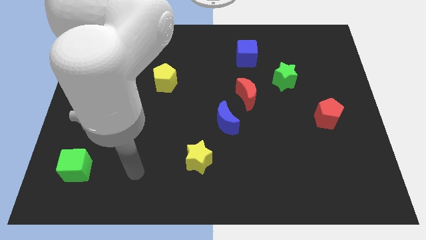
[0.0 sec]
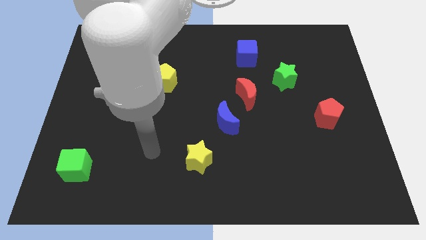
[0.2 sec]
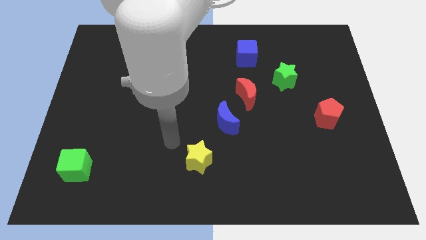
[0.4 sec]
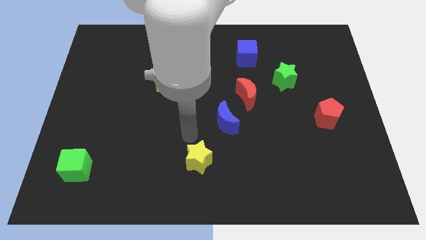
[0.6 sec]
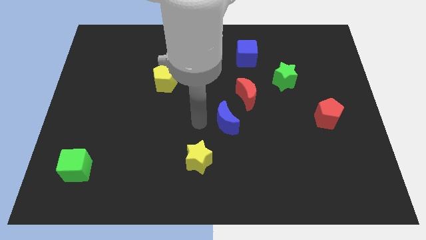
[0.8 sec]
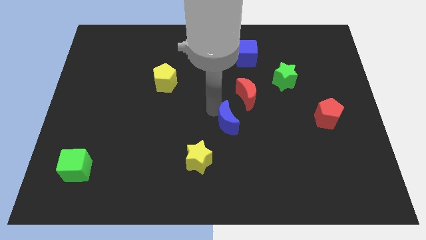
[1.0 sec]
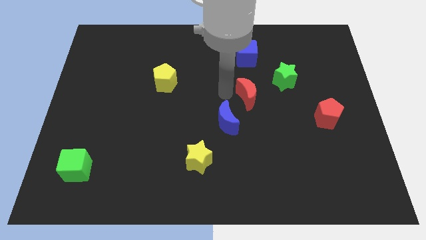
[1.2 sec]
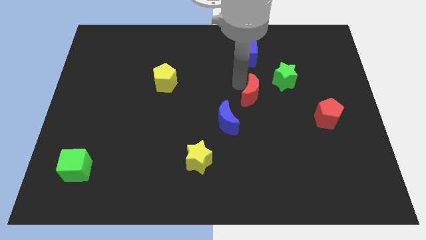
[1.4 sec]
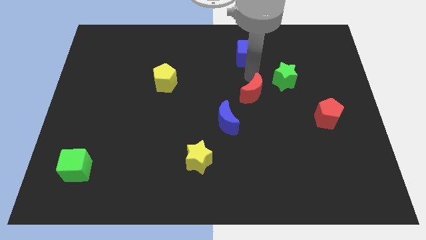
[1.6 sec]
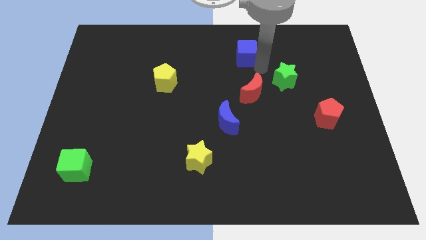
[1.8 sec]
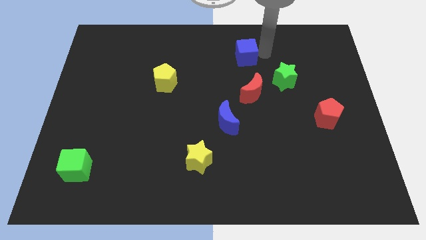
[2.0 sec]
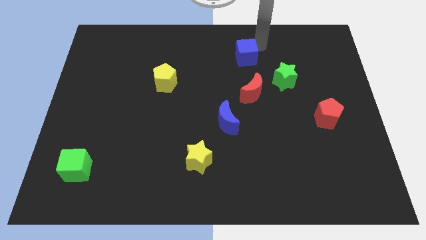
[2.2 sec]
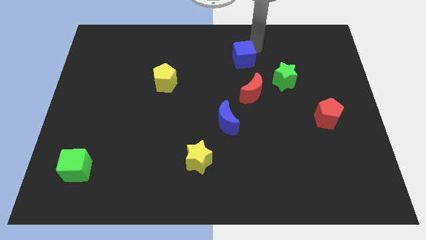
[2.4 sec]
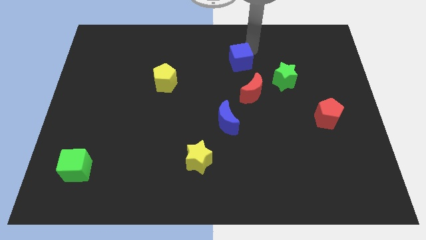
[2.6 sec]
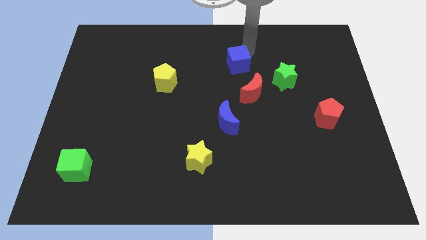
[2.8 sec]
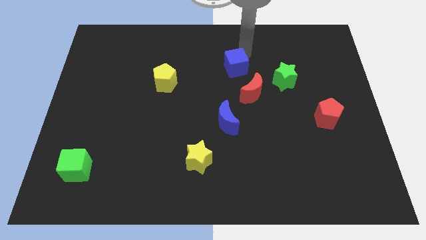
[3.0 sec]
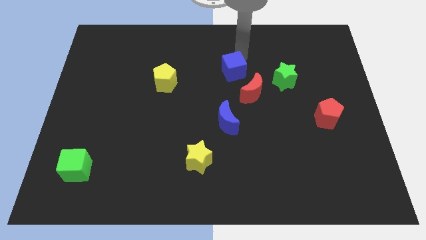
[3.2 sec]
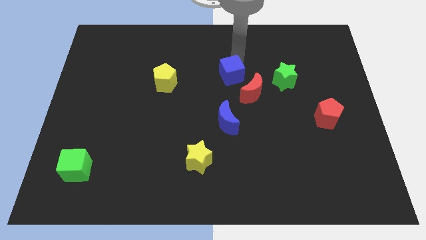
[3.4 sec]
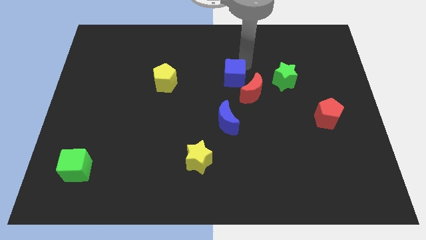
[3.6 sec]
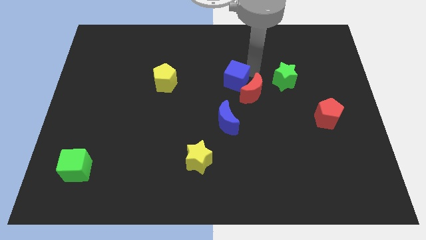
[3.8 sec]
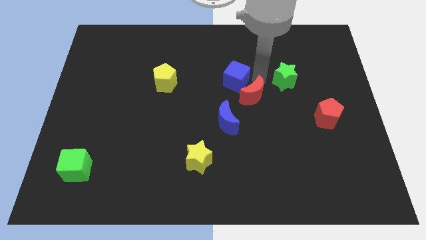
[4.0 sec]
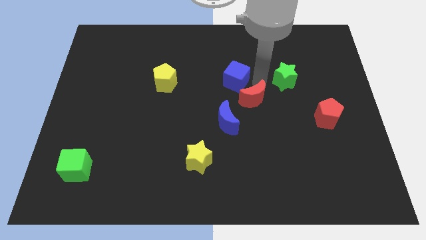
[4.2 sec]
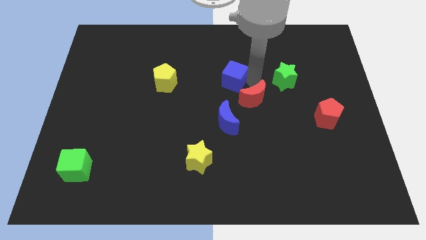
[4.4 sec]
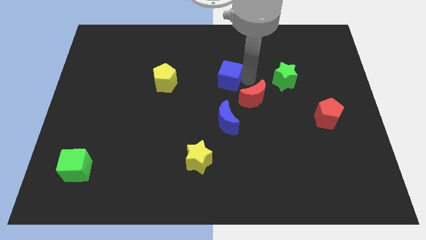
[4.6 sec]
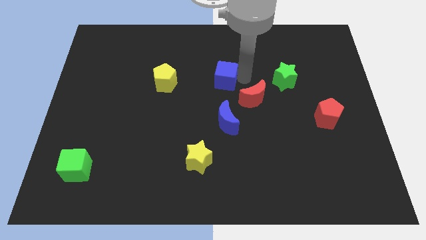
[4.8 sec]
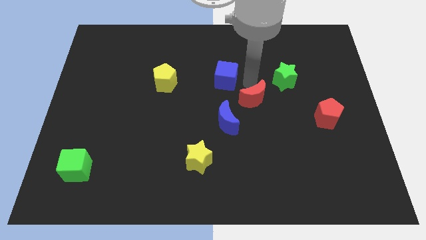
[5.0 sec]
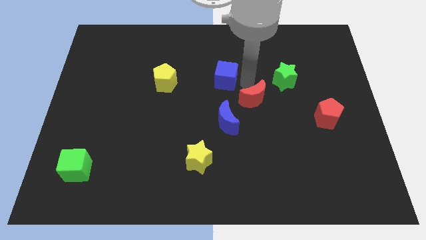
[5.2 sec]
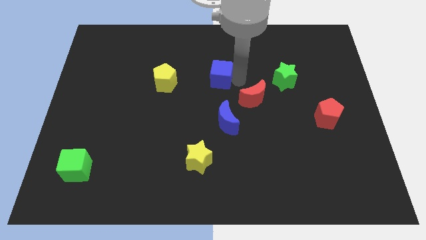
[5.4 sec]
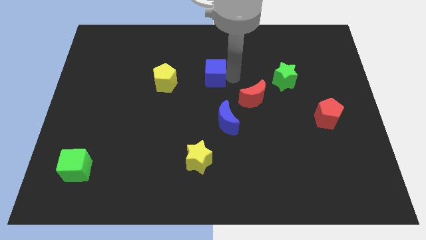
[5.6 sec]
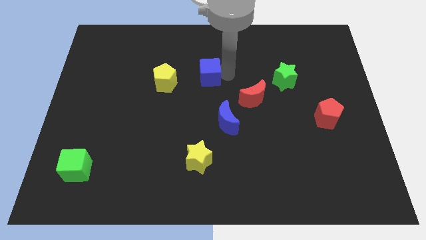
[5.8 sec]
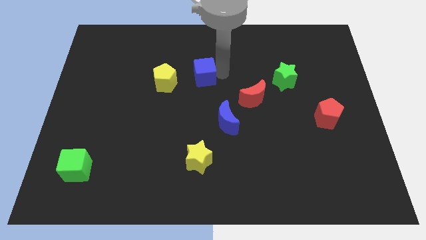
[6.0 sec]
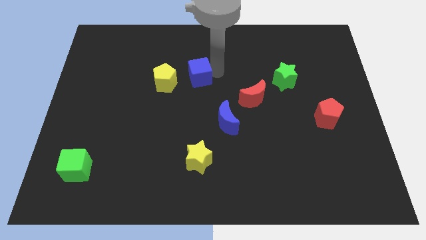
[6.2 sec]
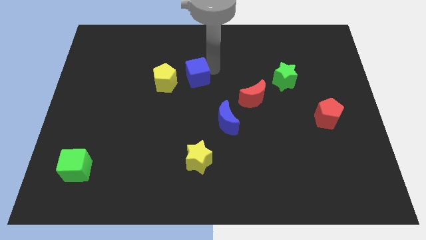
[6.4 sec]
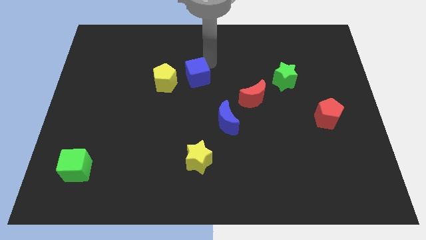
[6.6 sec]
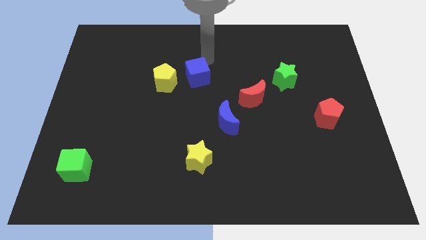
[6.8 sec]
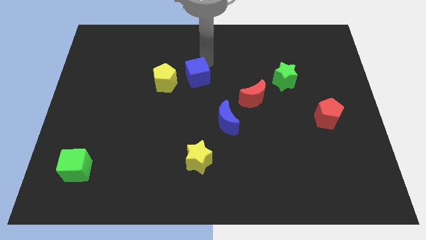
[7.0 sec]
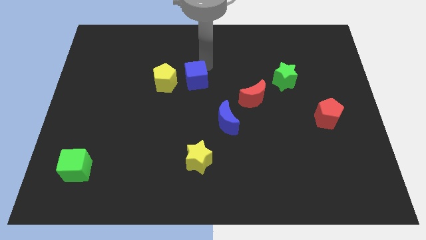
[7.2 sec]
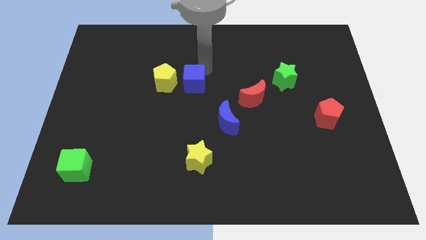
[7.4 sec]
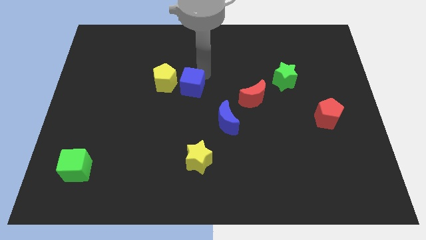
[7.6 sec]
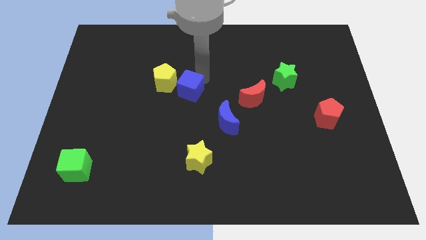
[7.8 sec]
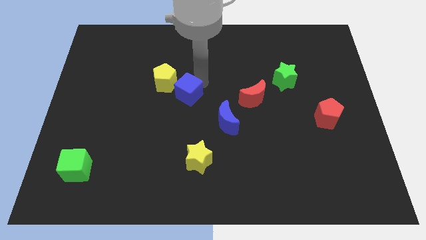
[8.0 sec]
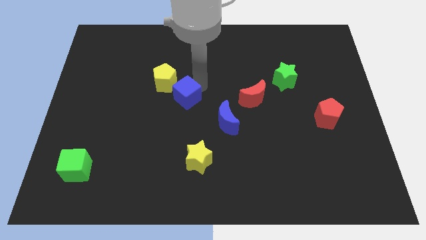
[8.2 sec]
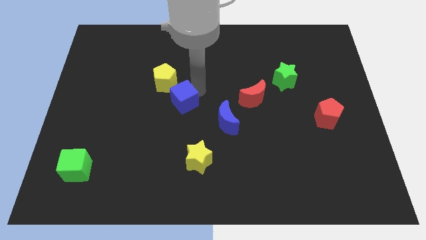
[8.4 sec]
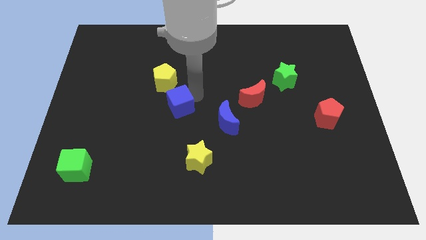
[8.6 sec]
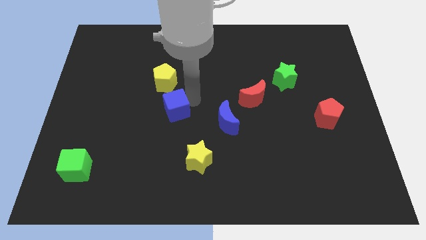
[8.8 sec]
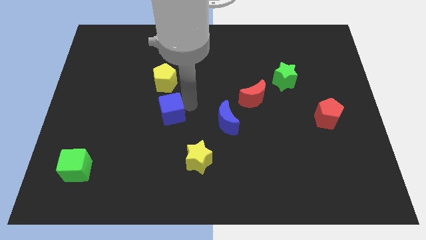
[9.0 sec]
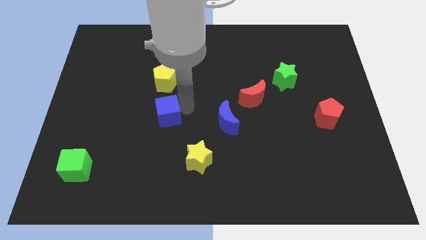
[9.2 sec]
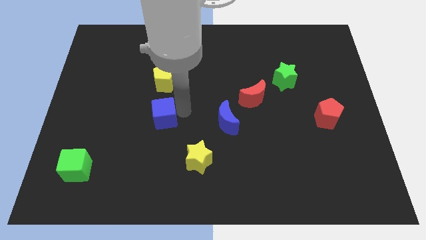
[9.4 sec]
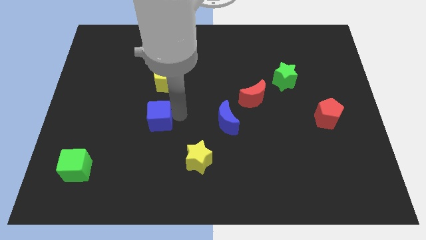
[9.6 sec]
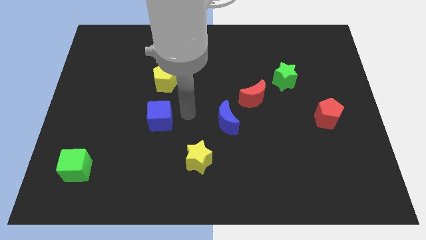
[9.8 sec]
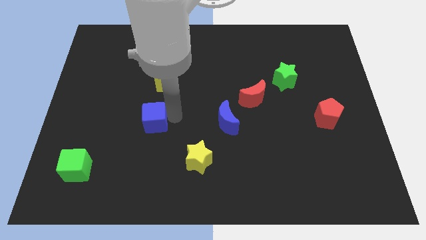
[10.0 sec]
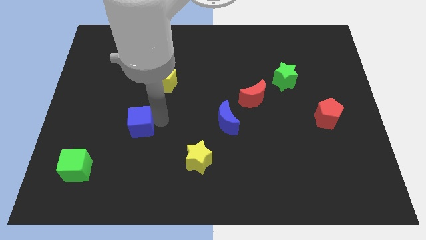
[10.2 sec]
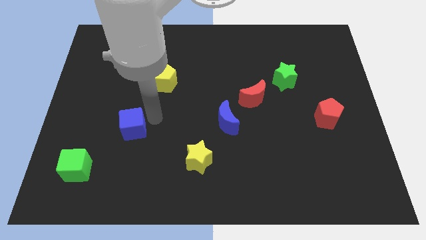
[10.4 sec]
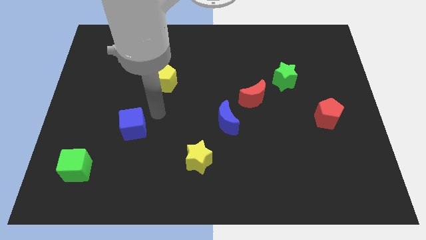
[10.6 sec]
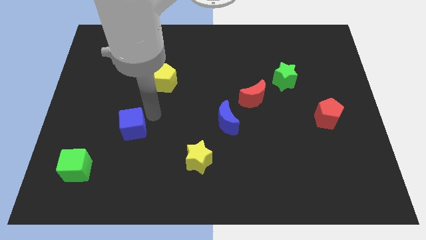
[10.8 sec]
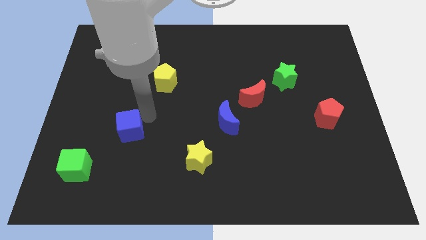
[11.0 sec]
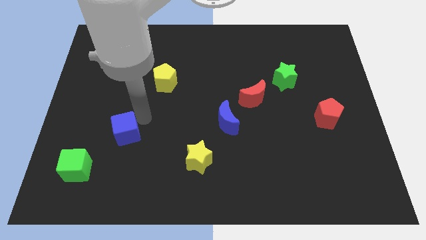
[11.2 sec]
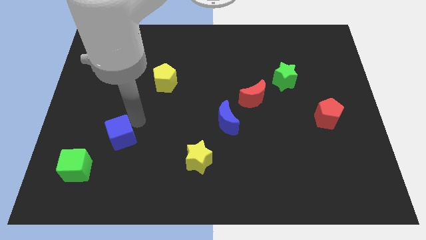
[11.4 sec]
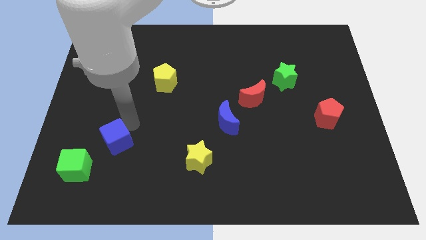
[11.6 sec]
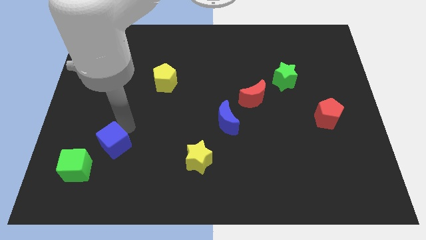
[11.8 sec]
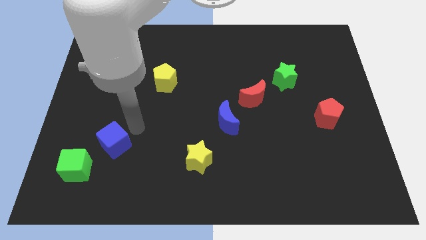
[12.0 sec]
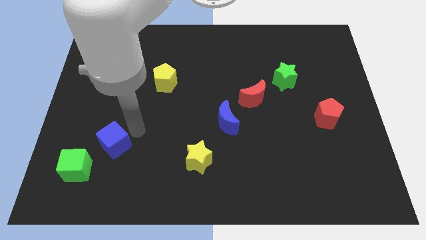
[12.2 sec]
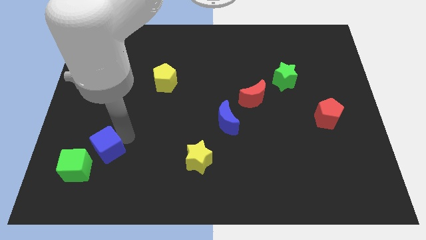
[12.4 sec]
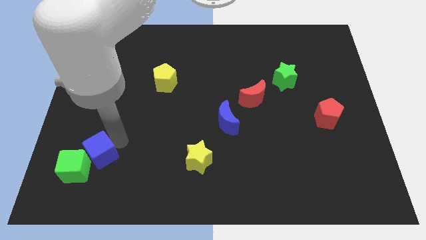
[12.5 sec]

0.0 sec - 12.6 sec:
move the blue cube close to the green cube

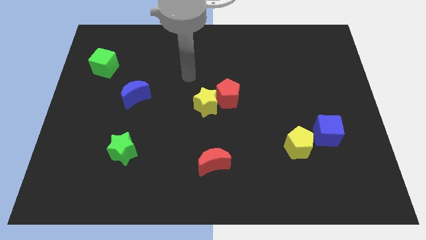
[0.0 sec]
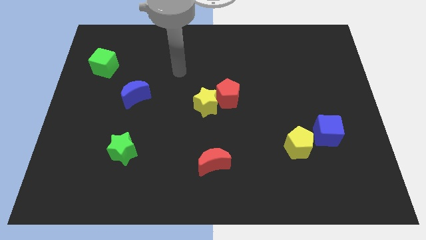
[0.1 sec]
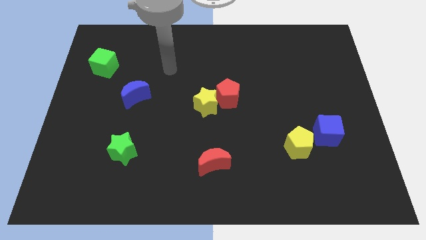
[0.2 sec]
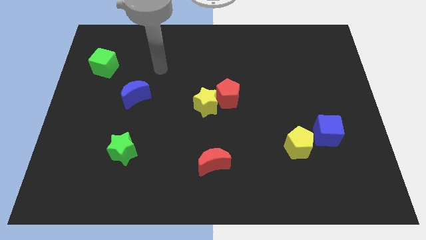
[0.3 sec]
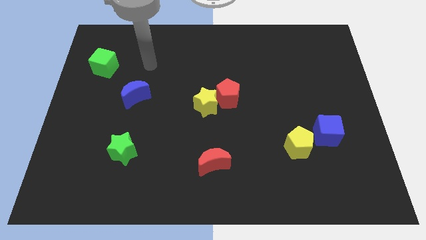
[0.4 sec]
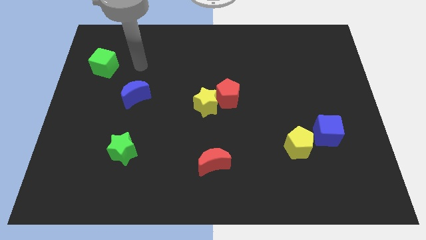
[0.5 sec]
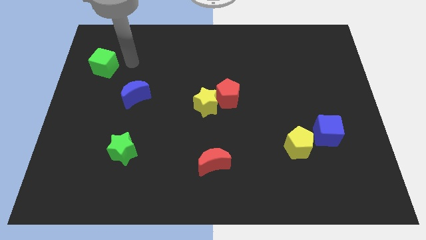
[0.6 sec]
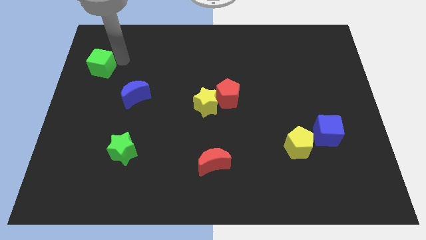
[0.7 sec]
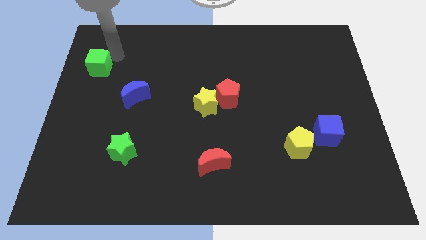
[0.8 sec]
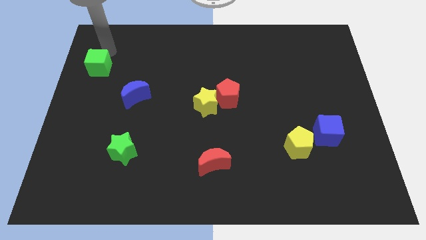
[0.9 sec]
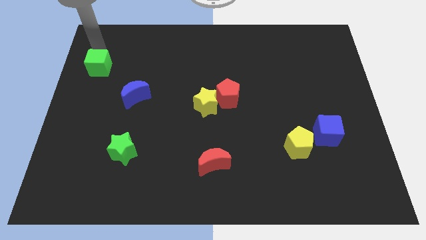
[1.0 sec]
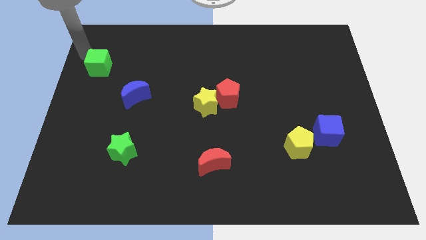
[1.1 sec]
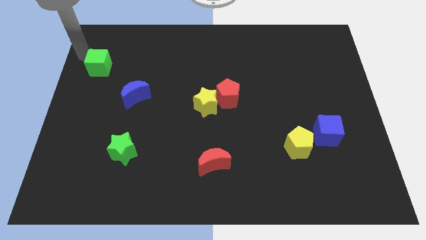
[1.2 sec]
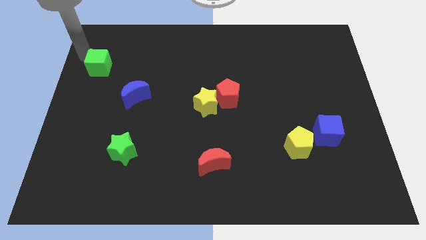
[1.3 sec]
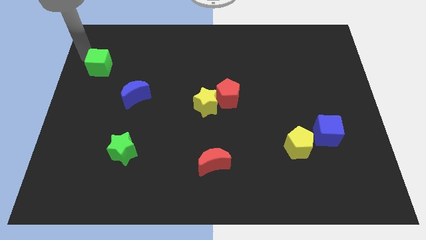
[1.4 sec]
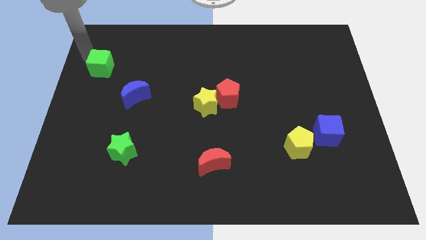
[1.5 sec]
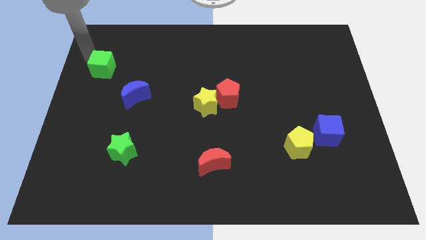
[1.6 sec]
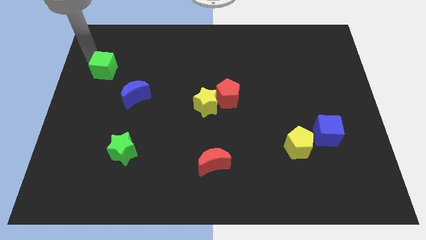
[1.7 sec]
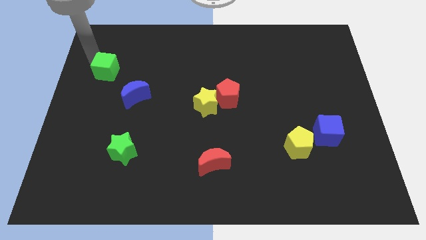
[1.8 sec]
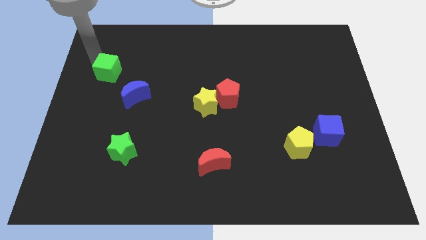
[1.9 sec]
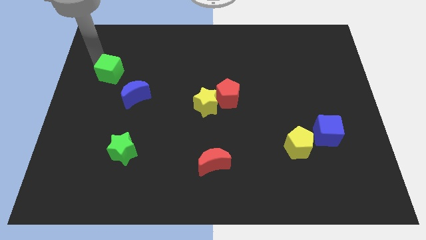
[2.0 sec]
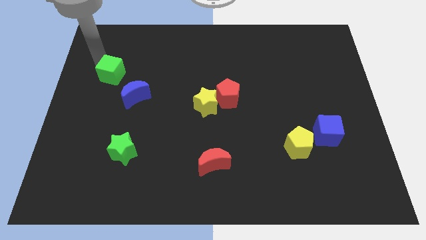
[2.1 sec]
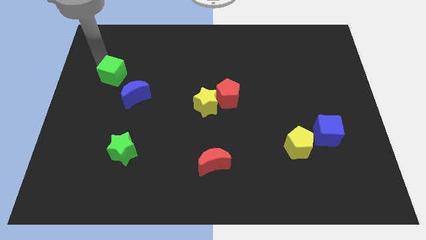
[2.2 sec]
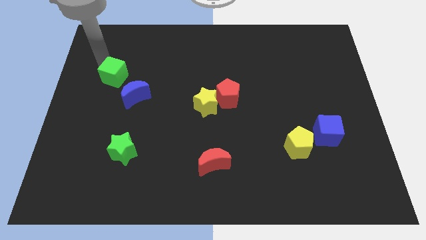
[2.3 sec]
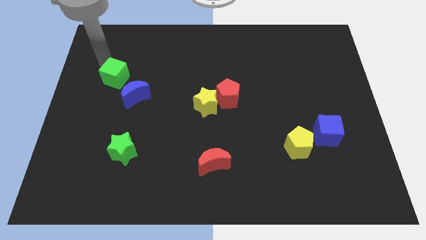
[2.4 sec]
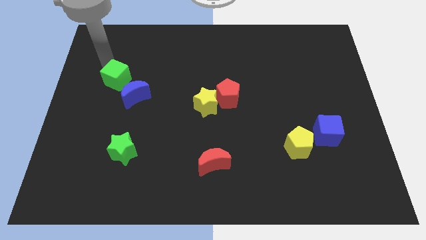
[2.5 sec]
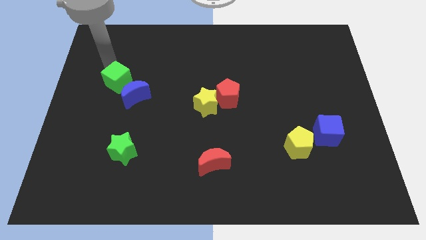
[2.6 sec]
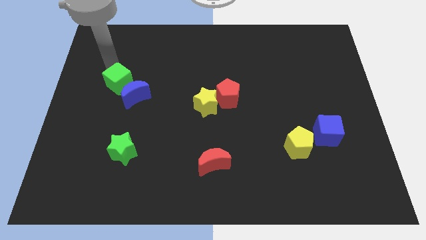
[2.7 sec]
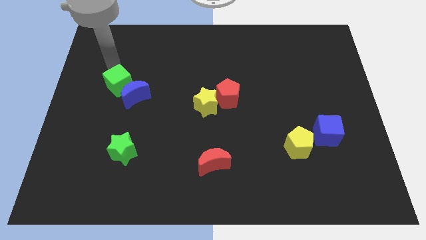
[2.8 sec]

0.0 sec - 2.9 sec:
move the green cube to the blue moon
